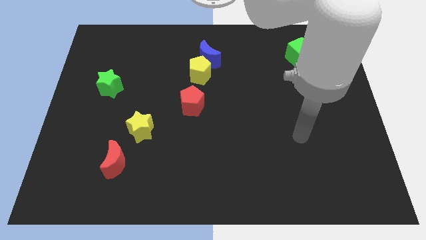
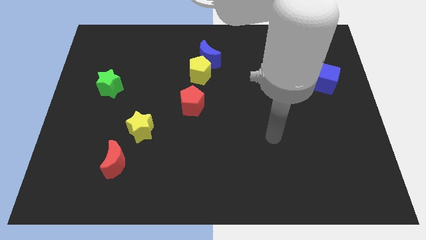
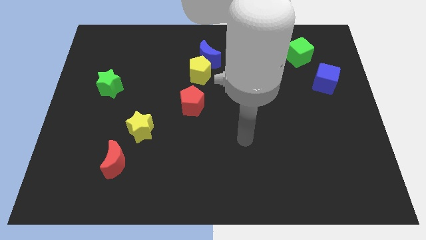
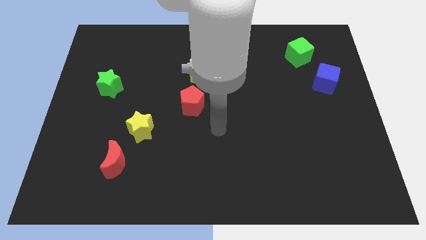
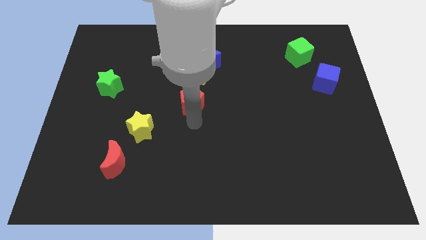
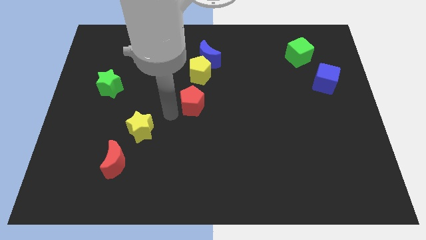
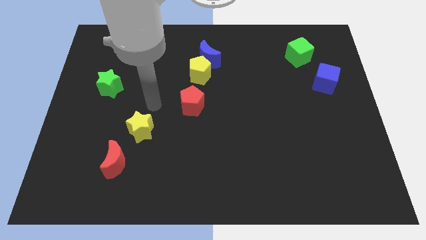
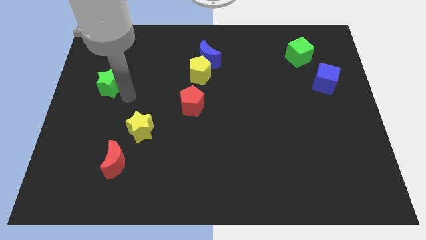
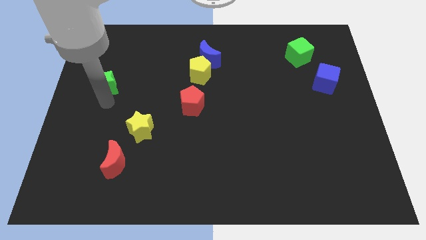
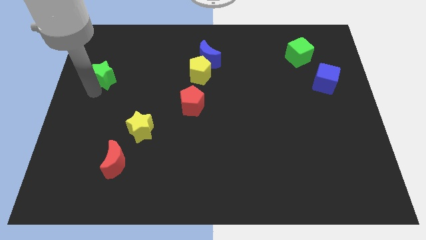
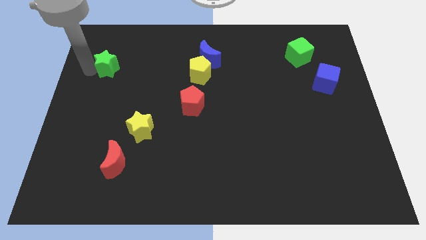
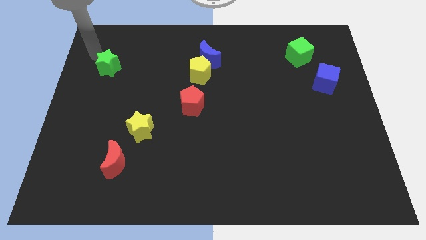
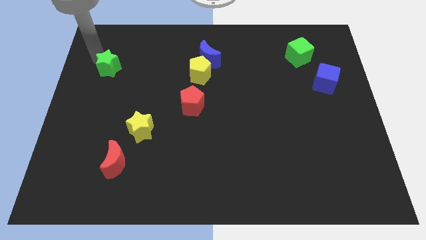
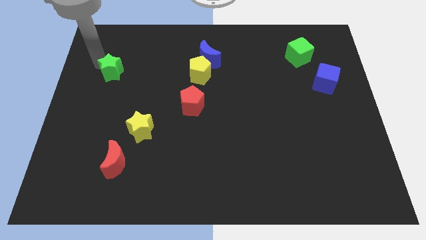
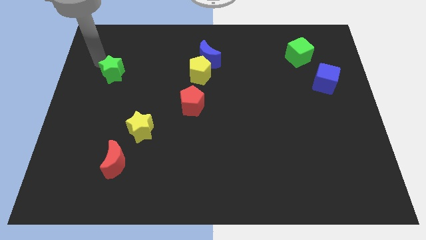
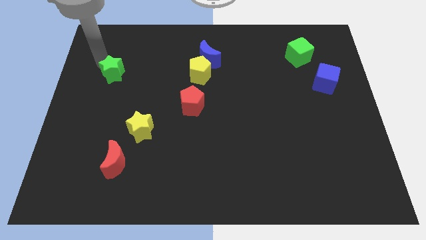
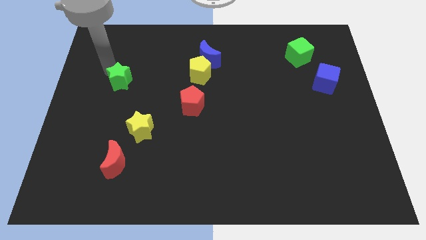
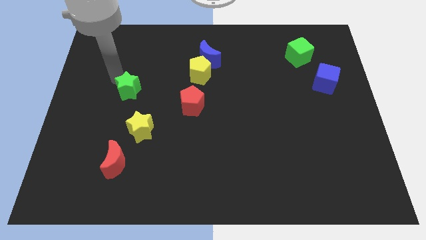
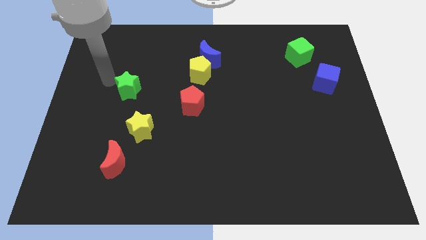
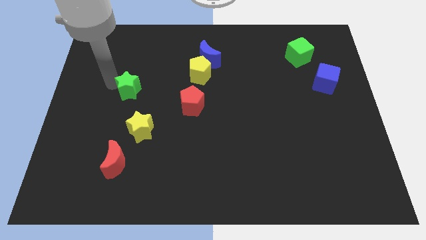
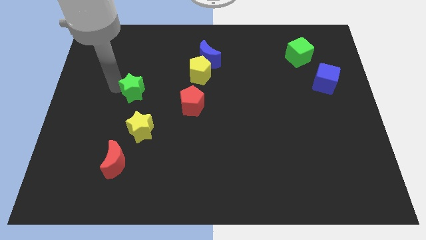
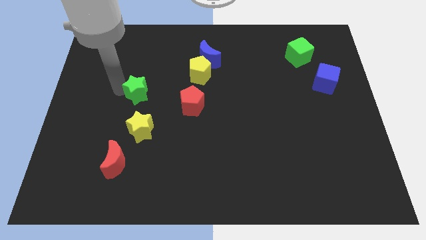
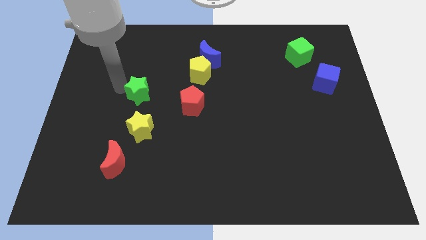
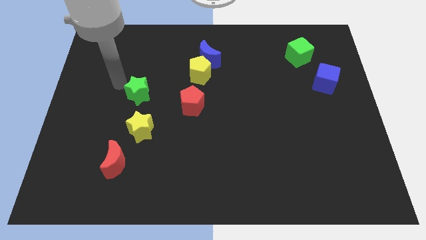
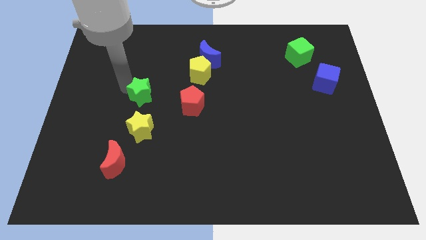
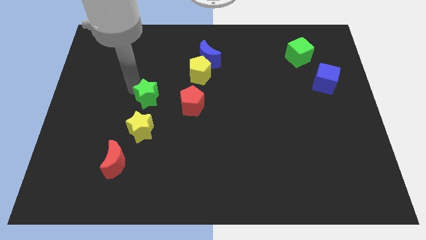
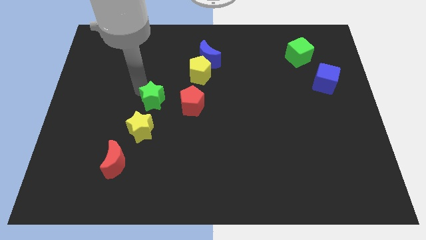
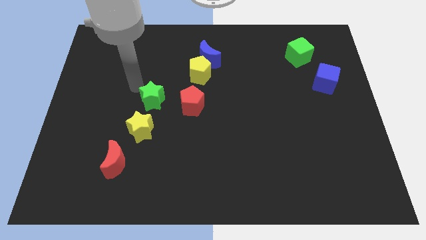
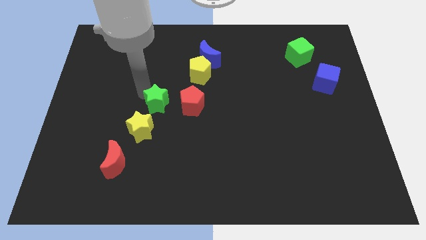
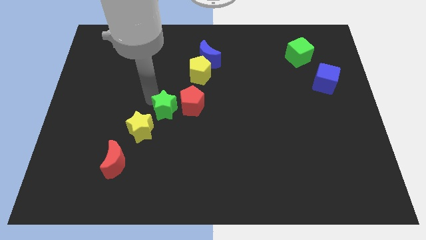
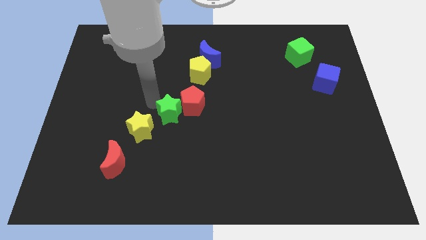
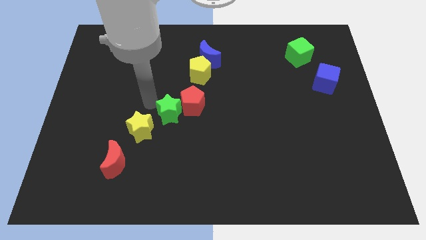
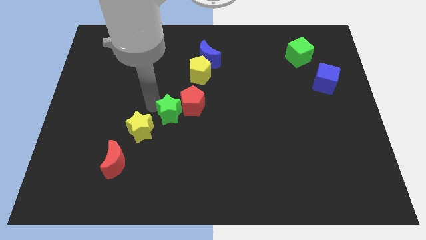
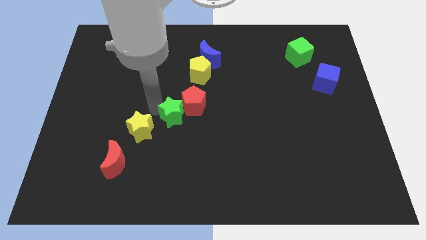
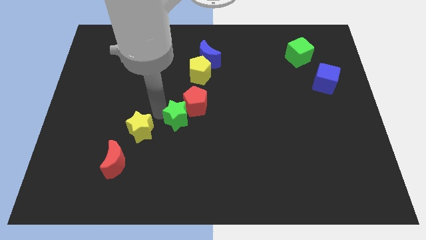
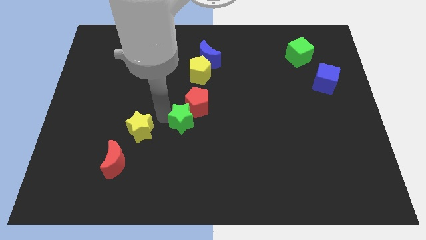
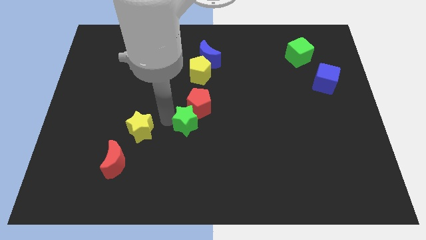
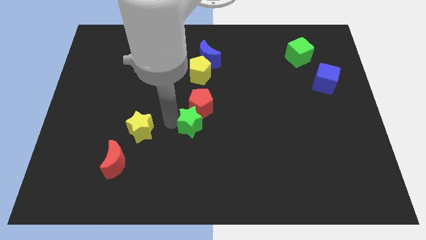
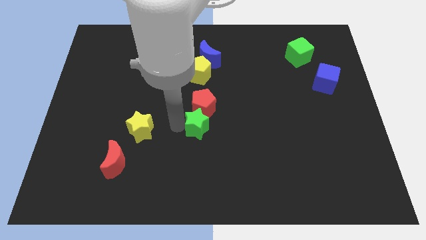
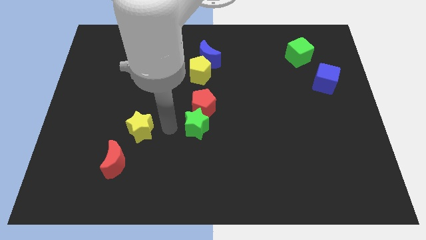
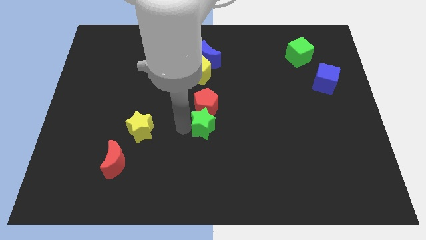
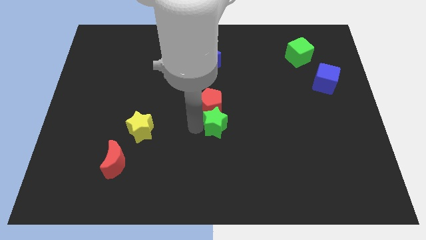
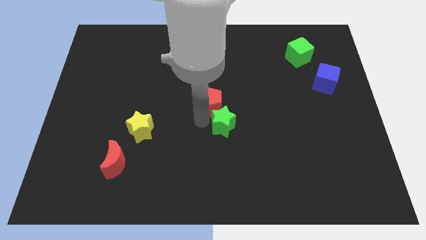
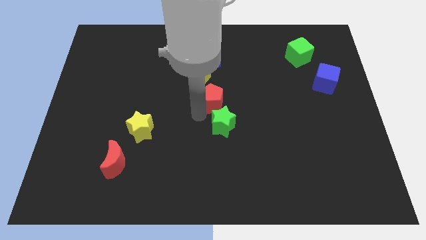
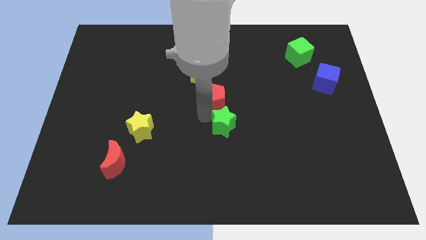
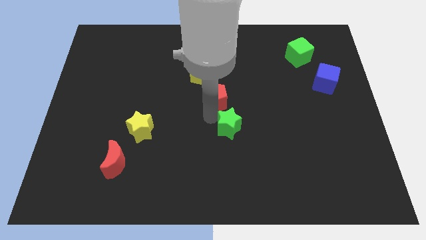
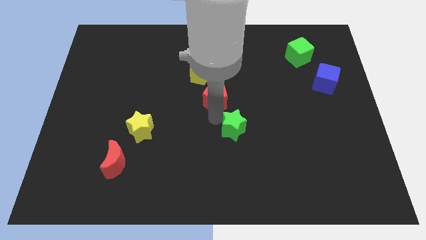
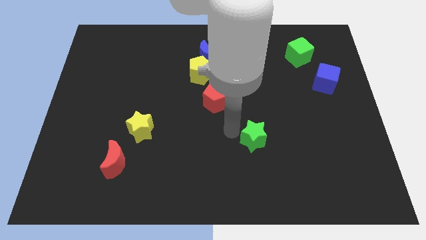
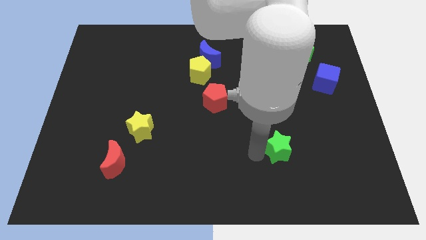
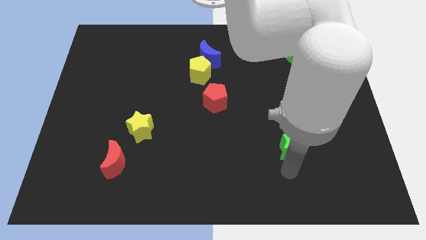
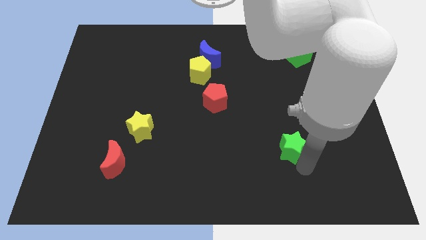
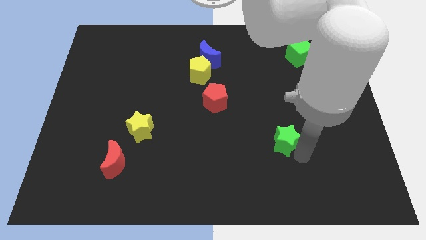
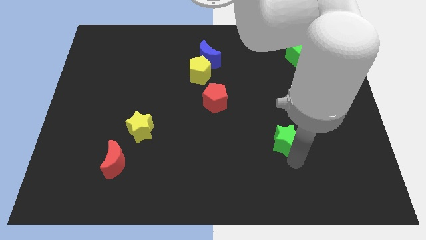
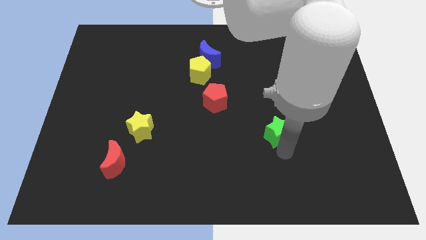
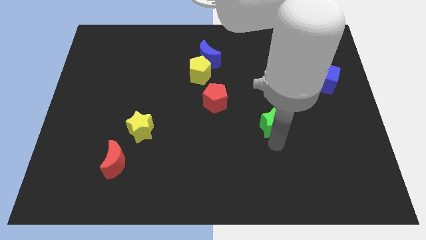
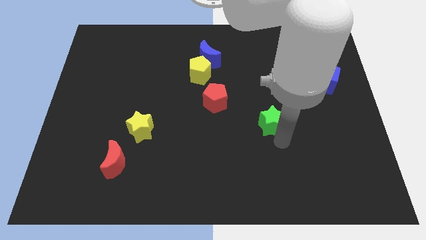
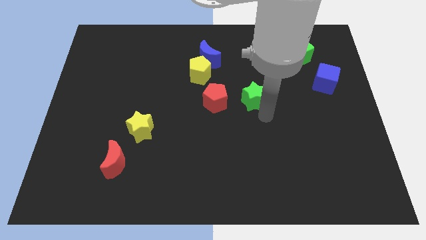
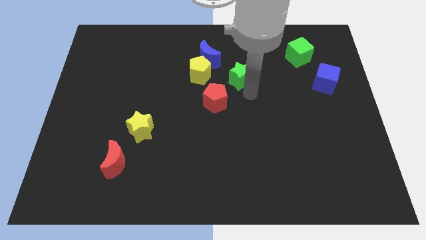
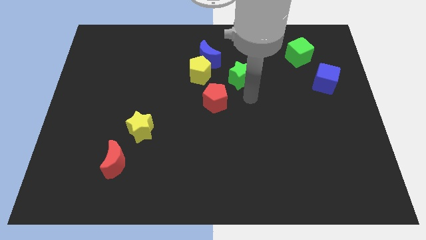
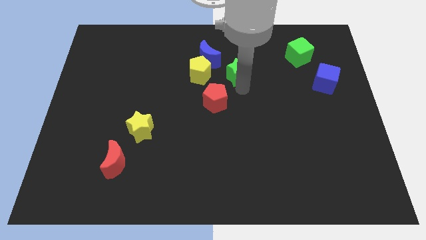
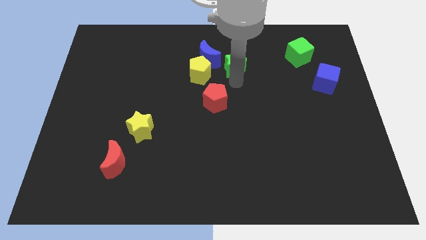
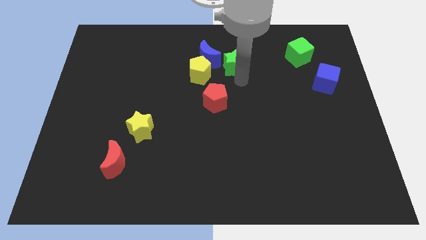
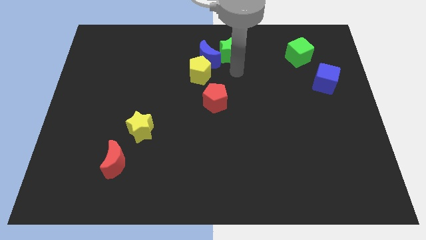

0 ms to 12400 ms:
push the green star to the towards your base

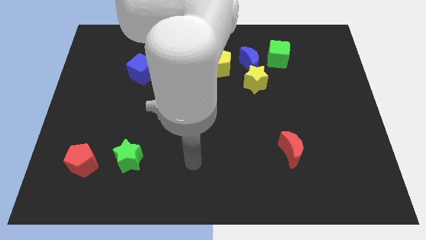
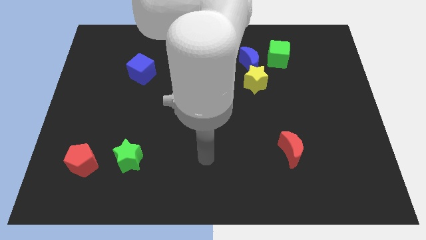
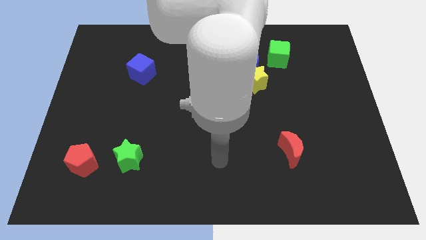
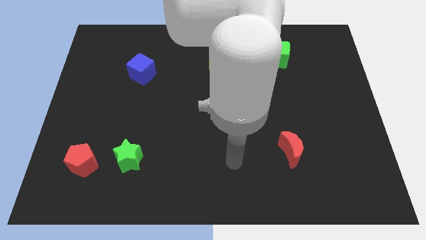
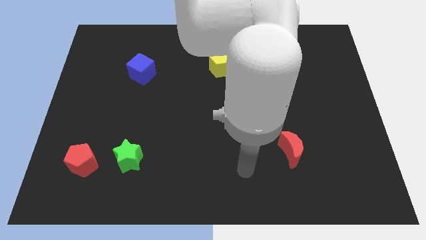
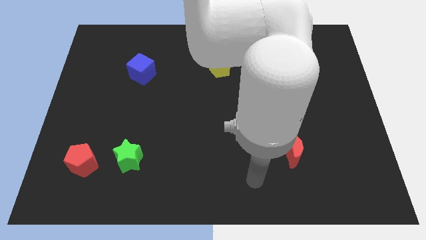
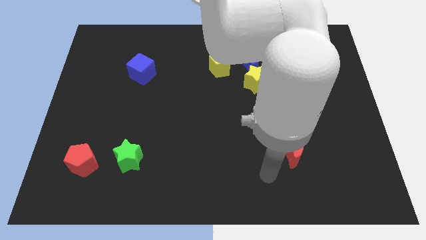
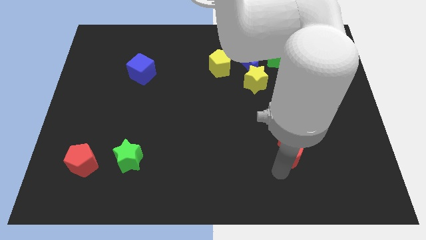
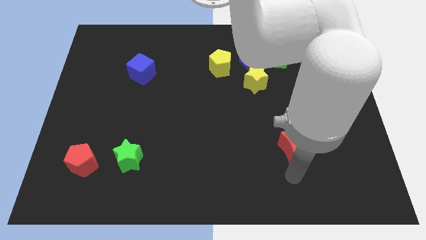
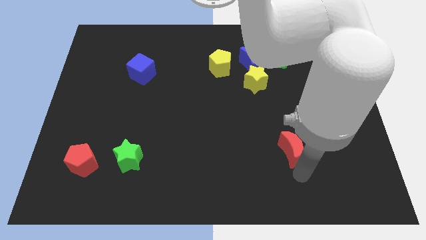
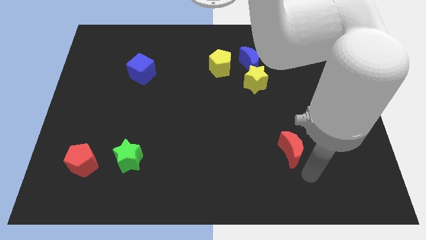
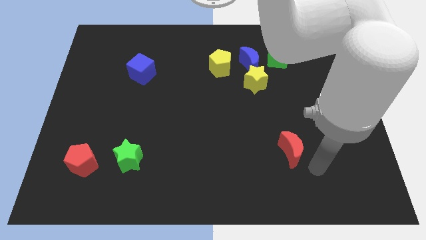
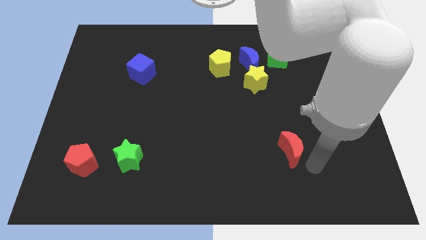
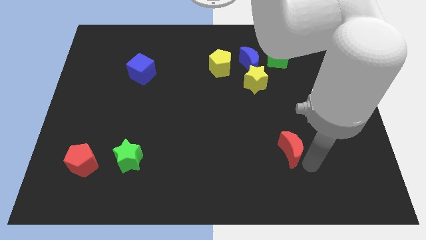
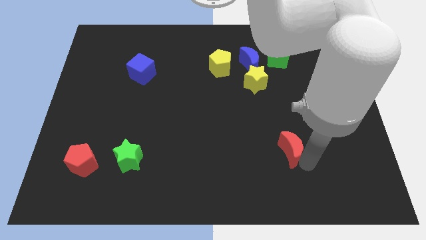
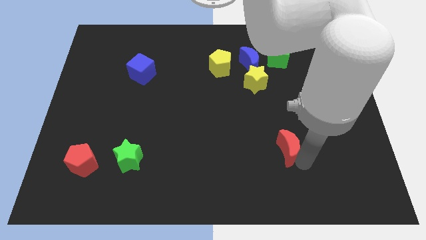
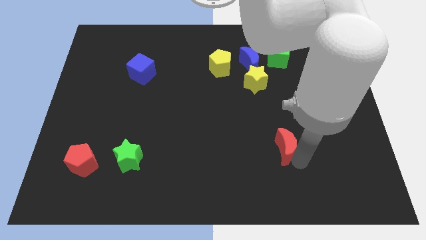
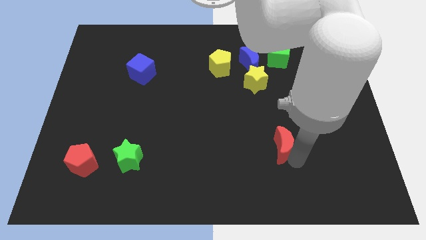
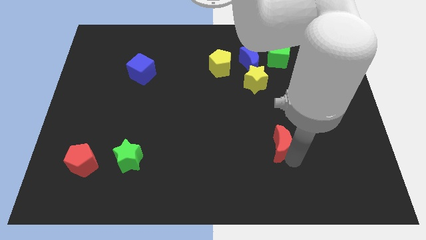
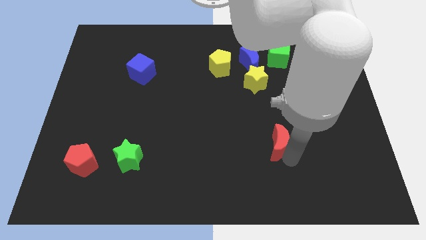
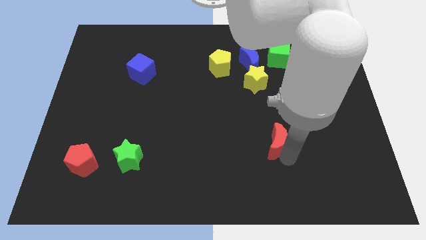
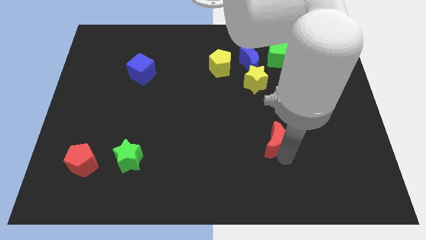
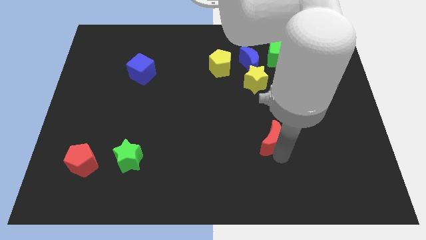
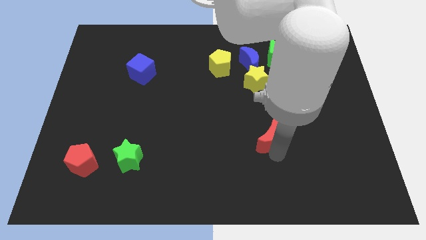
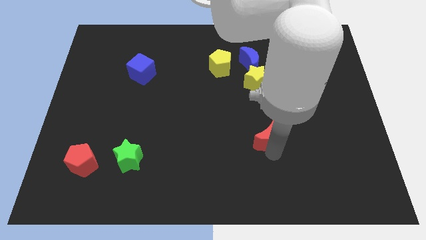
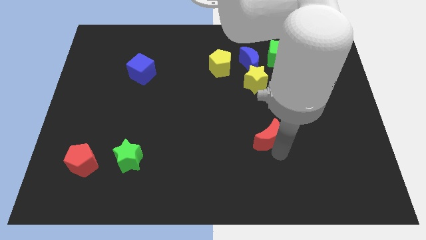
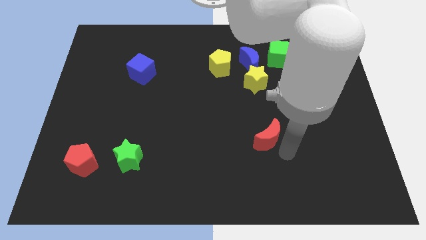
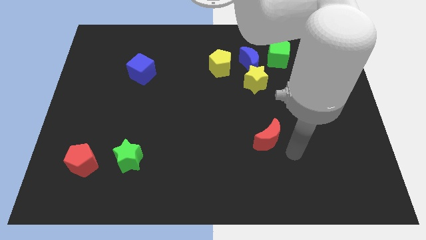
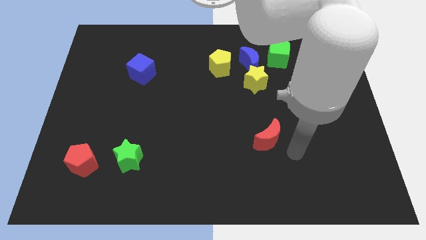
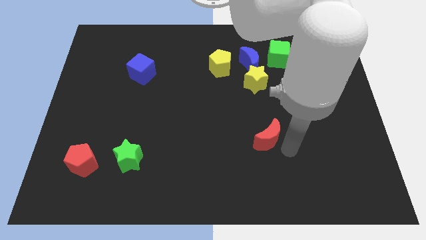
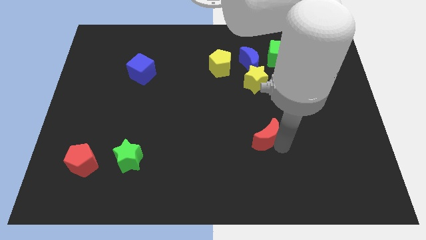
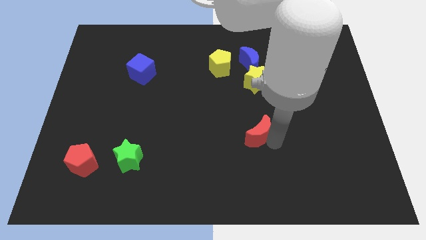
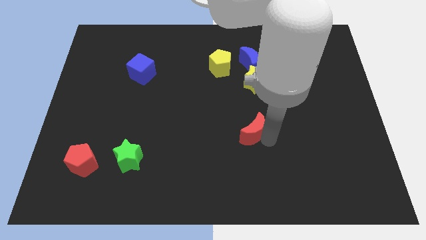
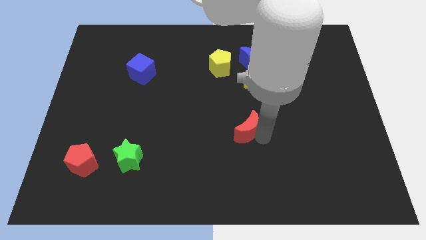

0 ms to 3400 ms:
slide the red moon to the middle of the board
